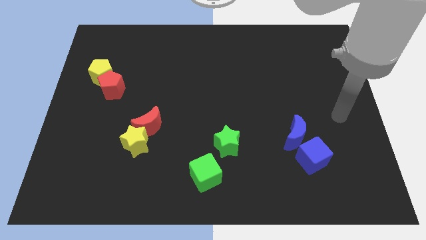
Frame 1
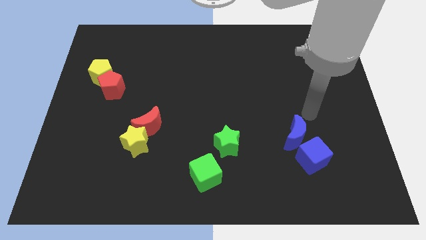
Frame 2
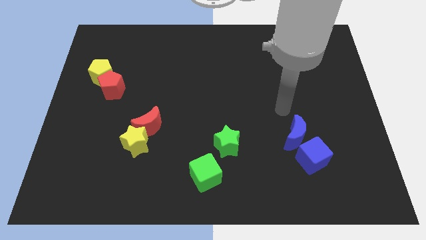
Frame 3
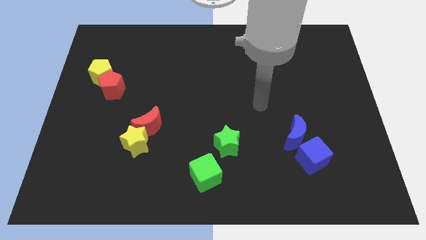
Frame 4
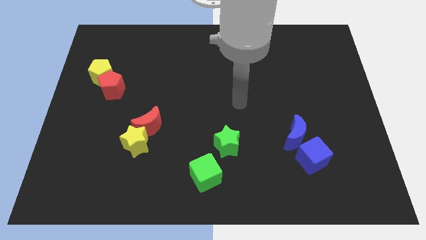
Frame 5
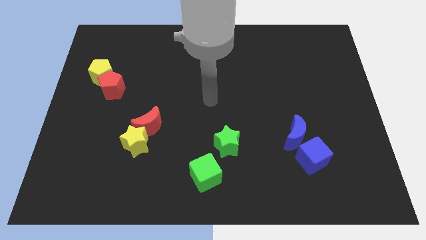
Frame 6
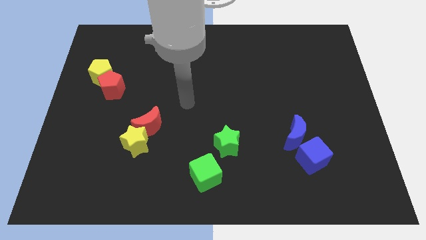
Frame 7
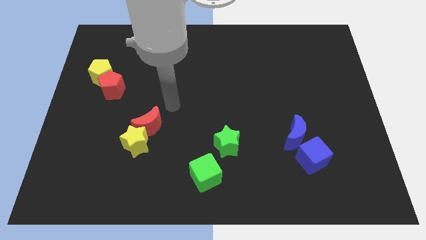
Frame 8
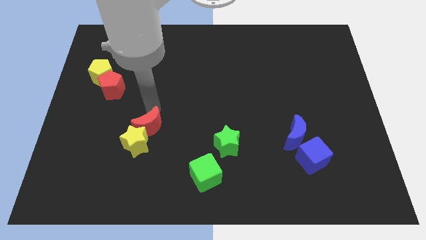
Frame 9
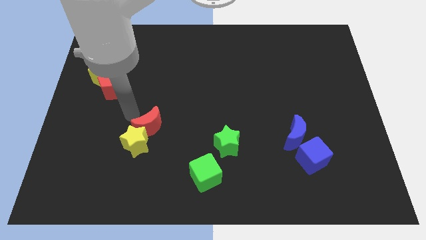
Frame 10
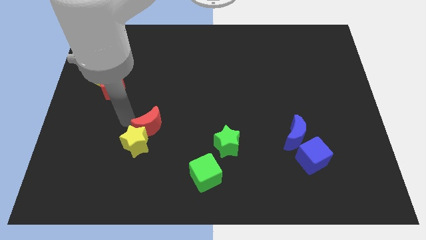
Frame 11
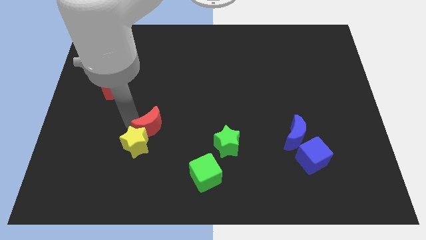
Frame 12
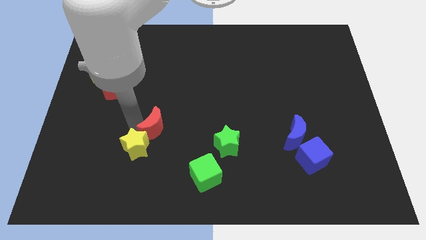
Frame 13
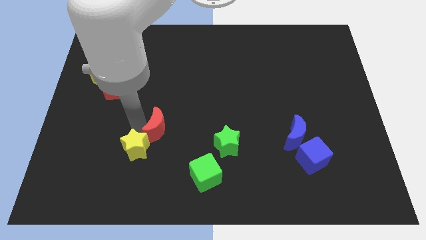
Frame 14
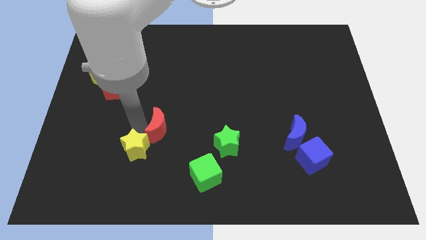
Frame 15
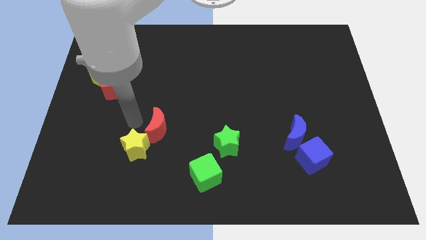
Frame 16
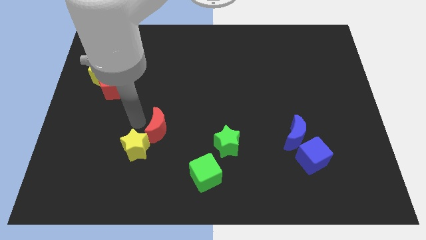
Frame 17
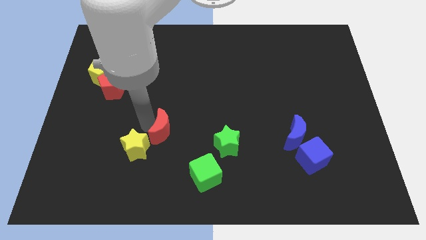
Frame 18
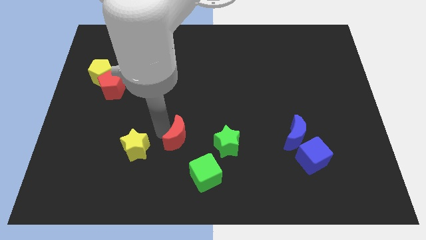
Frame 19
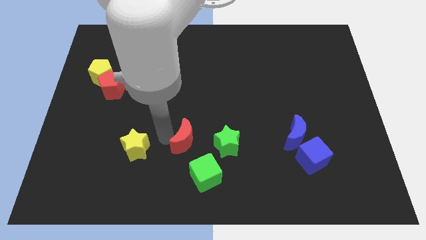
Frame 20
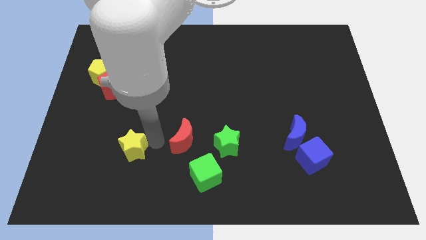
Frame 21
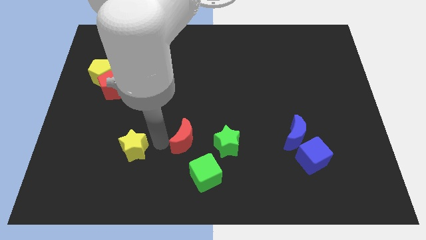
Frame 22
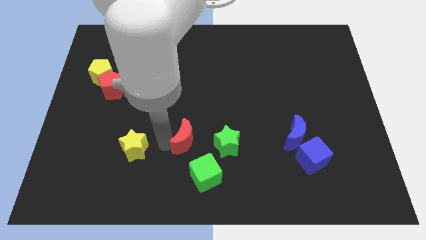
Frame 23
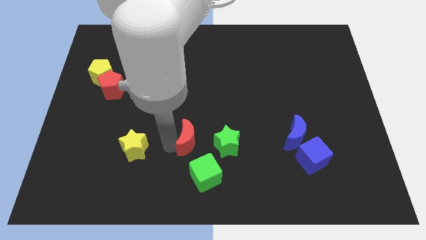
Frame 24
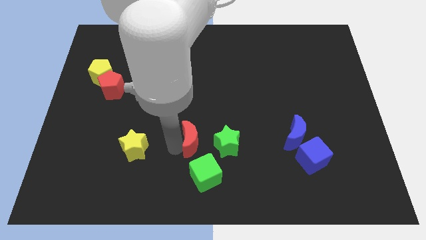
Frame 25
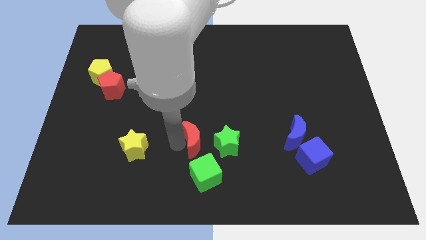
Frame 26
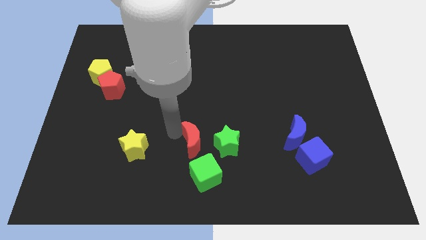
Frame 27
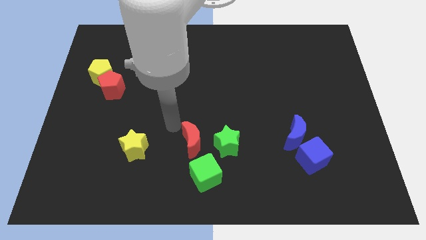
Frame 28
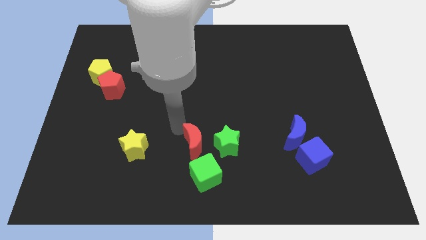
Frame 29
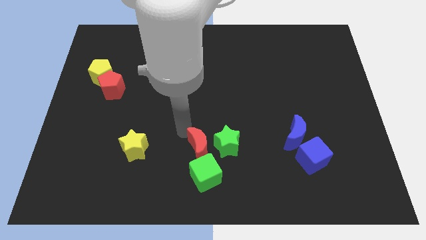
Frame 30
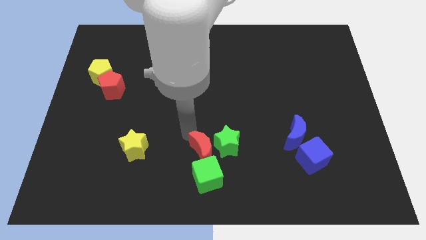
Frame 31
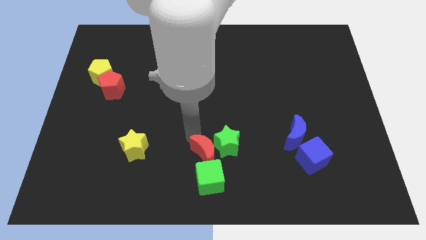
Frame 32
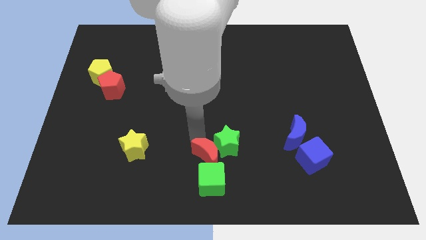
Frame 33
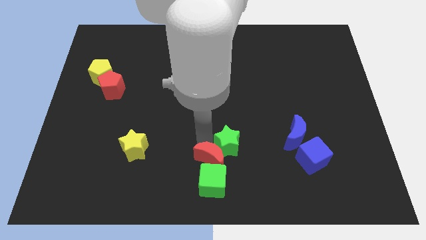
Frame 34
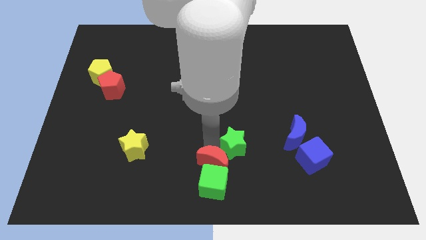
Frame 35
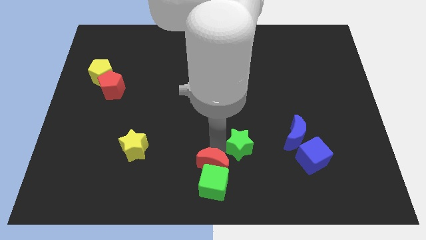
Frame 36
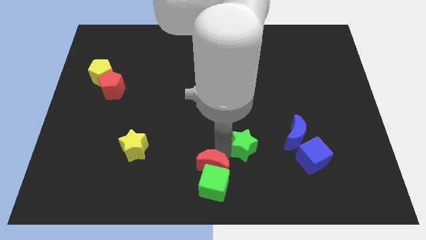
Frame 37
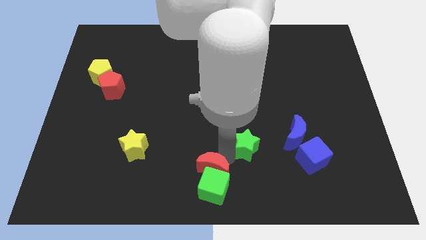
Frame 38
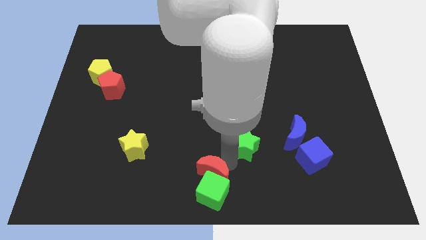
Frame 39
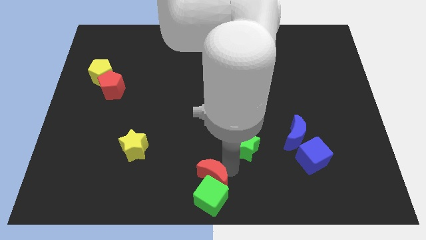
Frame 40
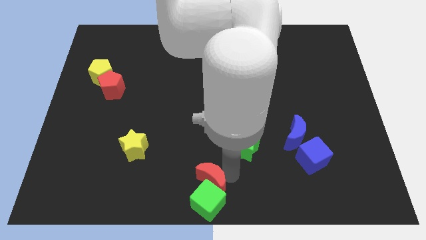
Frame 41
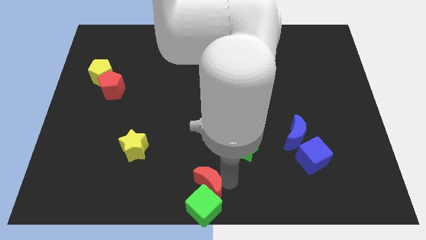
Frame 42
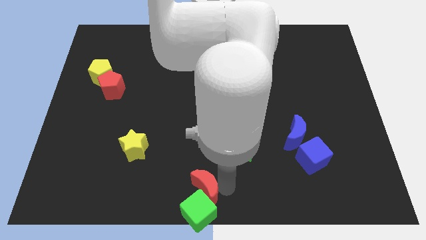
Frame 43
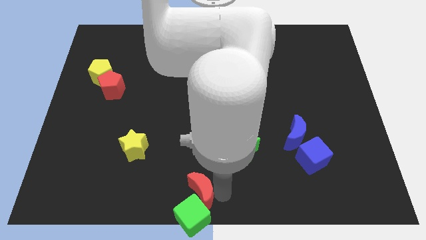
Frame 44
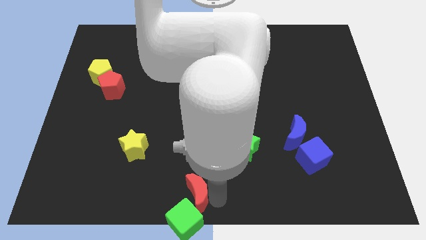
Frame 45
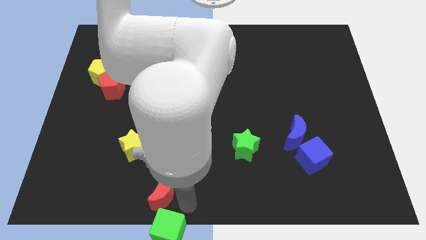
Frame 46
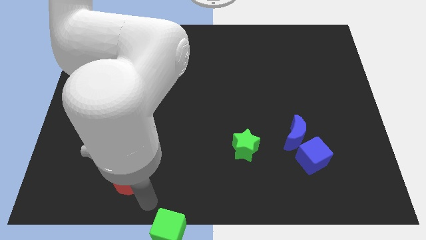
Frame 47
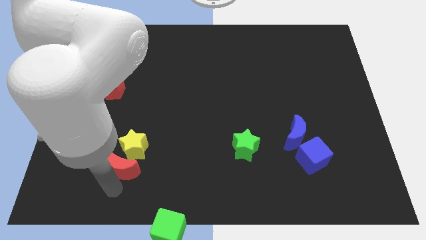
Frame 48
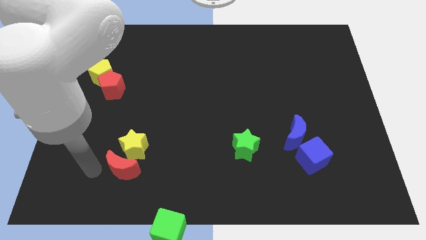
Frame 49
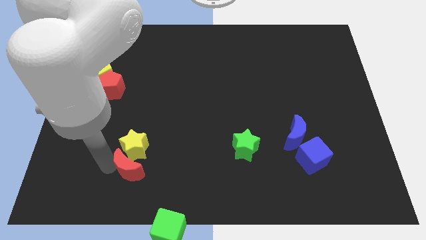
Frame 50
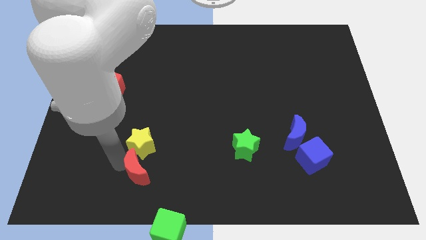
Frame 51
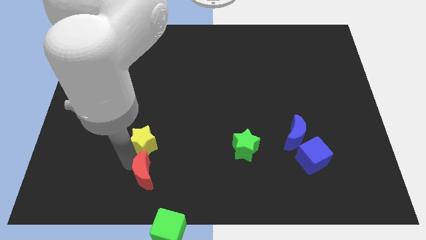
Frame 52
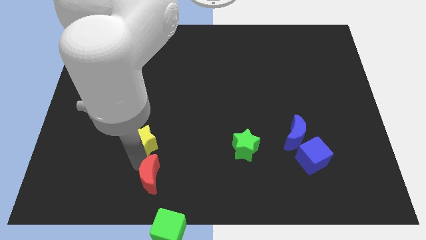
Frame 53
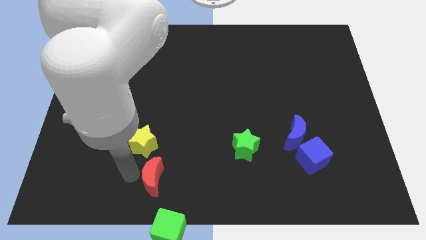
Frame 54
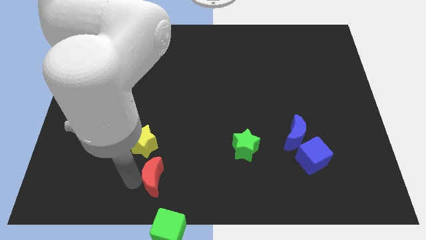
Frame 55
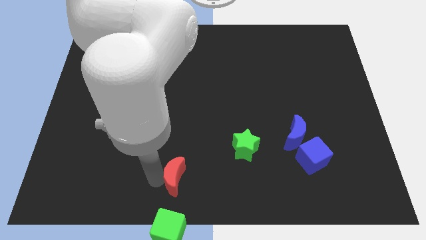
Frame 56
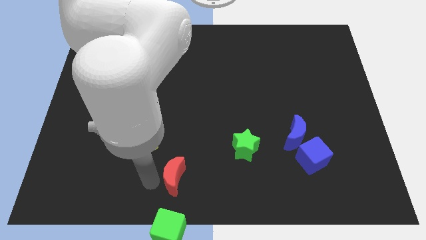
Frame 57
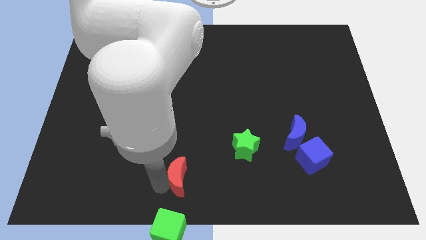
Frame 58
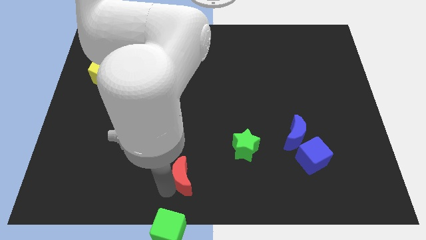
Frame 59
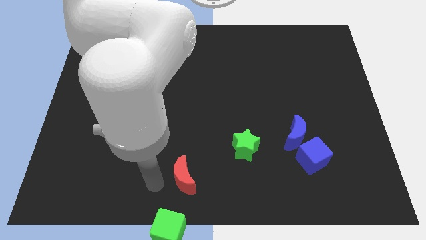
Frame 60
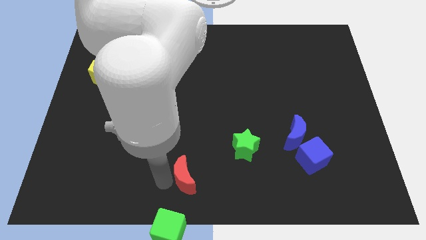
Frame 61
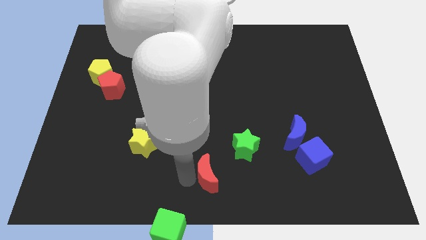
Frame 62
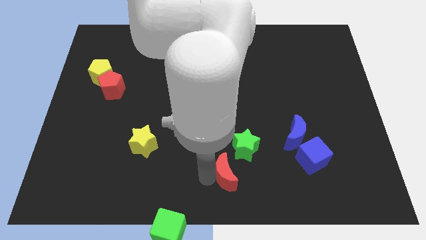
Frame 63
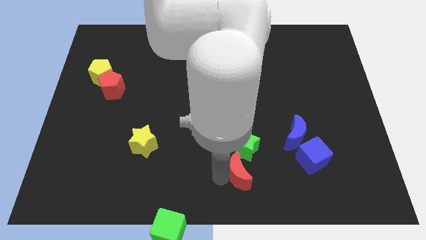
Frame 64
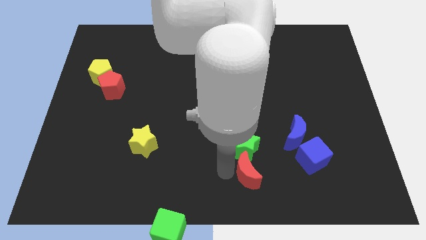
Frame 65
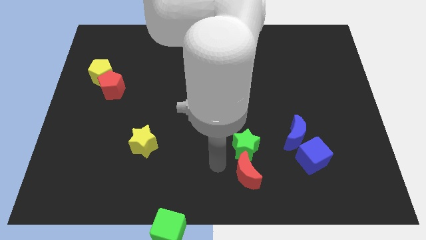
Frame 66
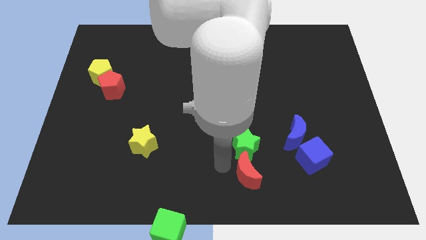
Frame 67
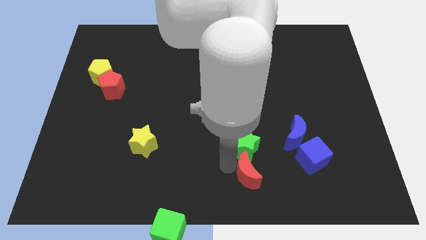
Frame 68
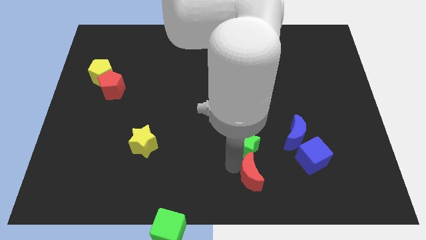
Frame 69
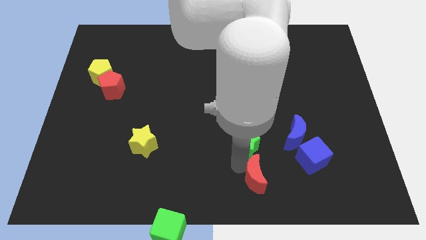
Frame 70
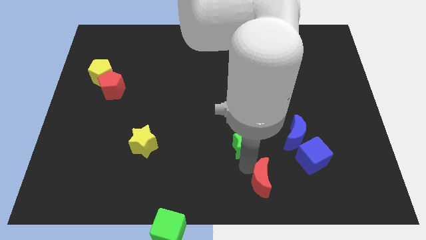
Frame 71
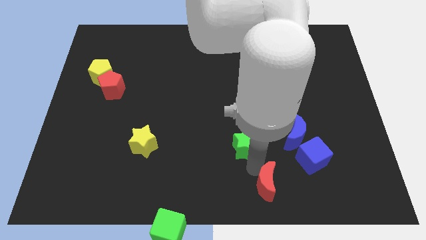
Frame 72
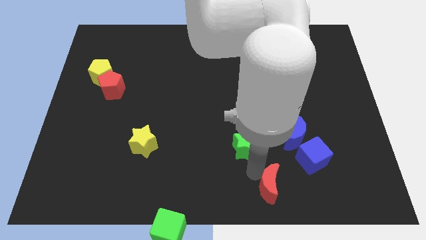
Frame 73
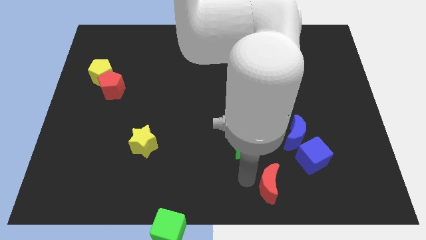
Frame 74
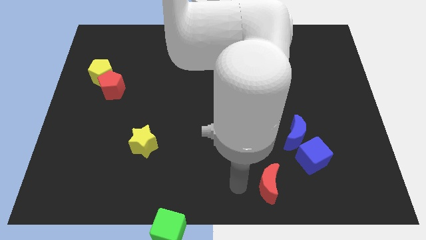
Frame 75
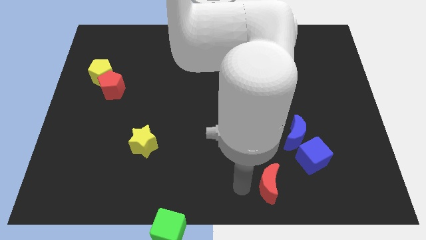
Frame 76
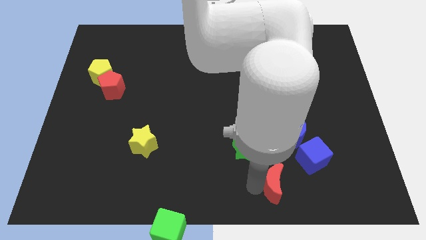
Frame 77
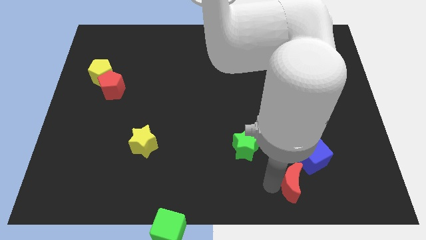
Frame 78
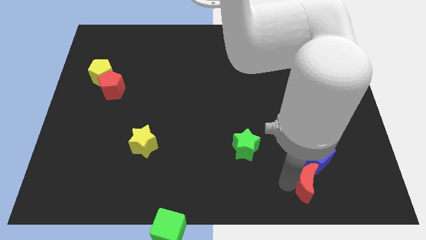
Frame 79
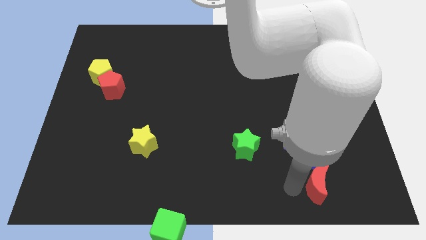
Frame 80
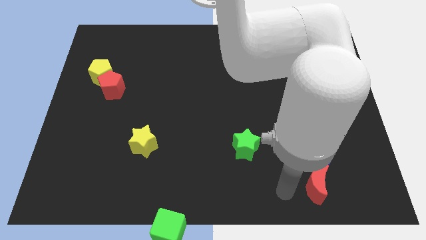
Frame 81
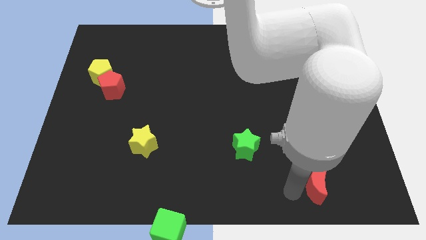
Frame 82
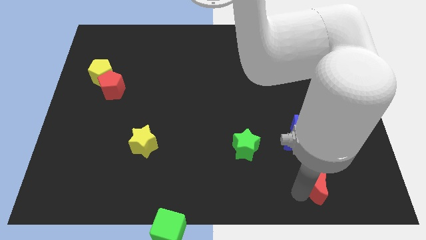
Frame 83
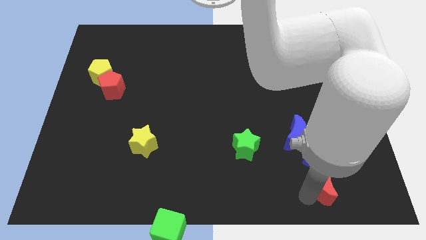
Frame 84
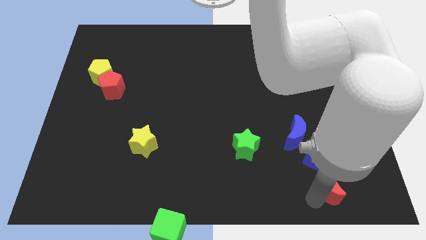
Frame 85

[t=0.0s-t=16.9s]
push the red moon to the bottom right of the blue cube
